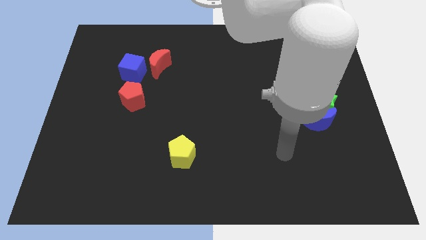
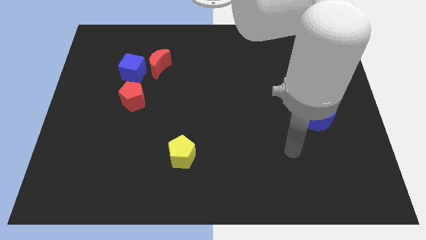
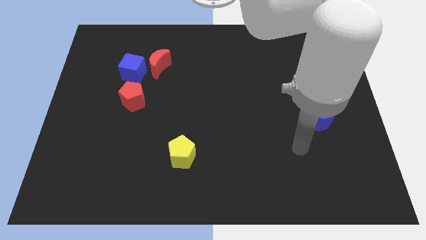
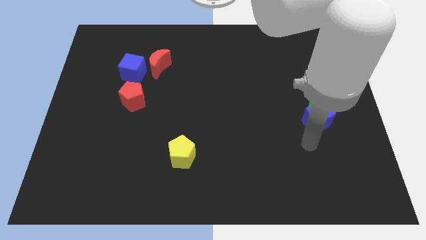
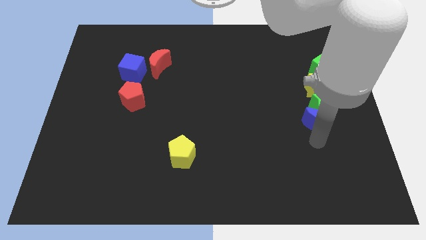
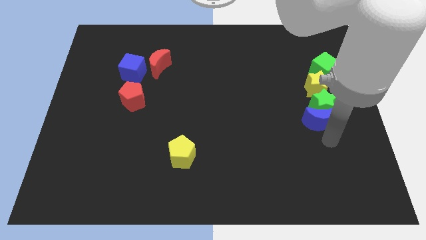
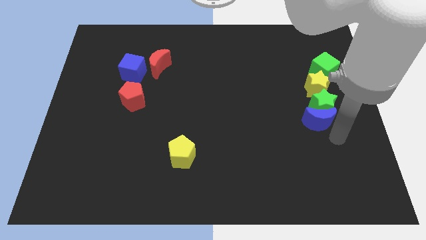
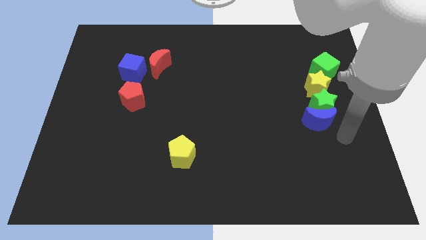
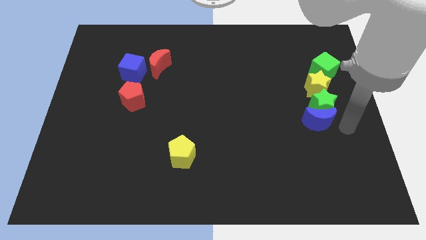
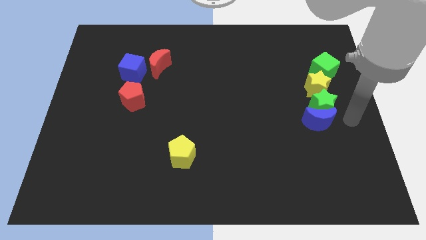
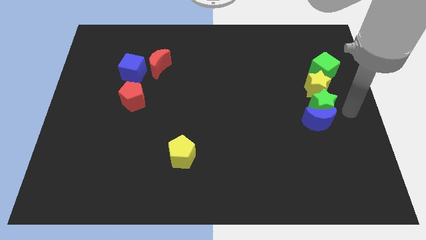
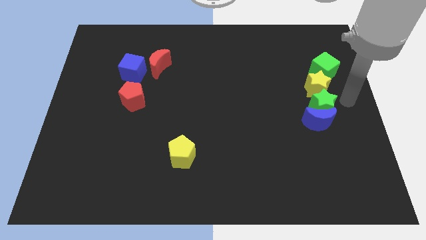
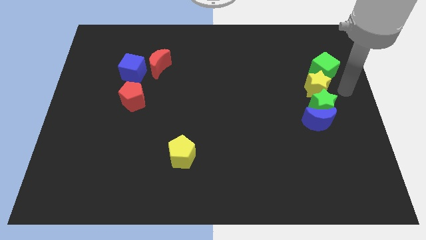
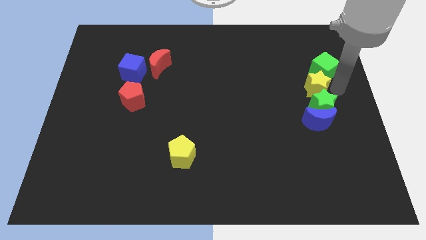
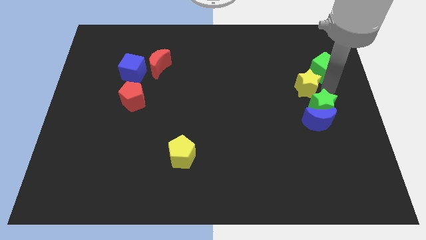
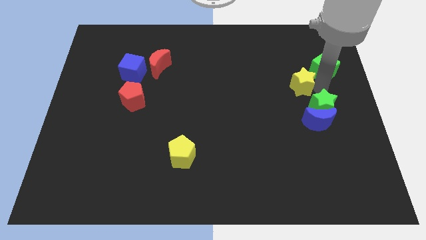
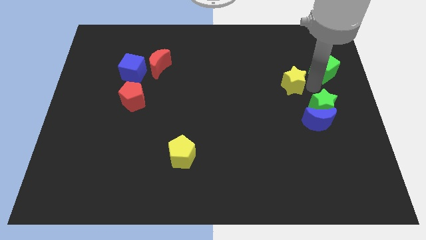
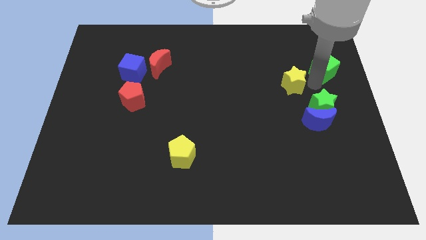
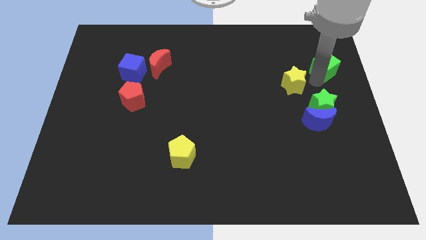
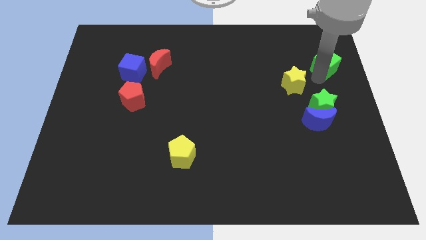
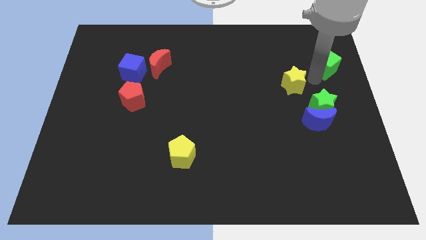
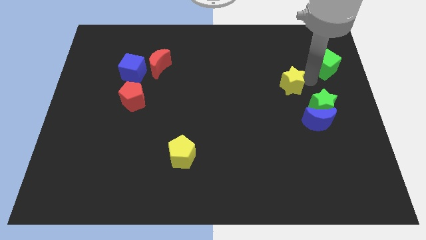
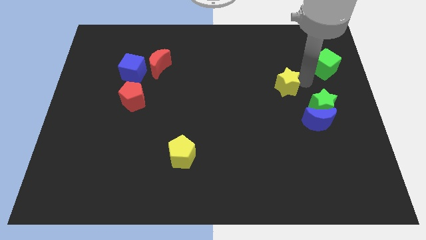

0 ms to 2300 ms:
slide the yellow star slightly left

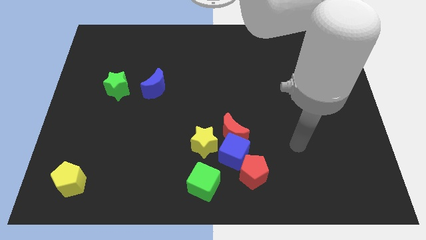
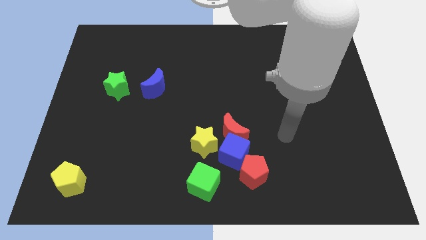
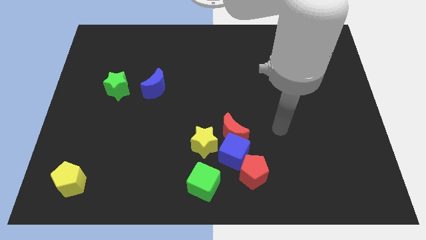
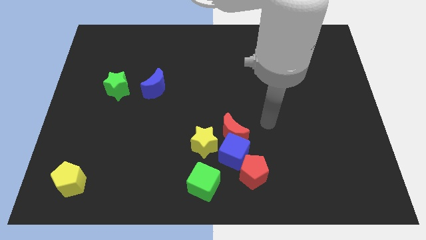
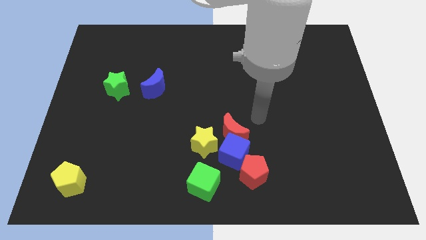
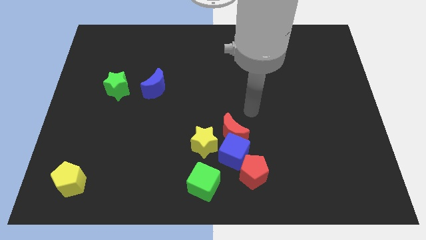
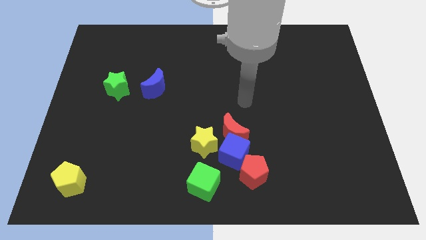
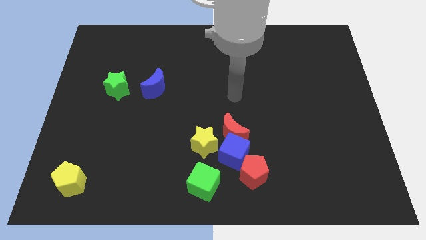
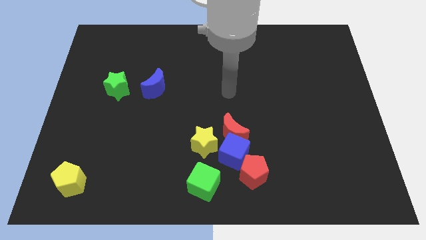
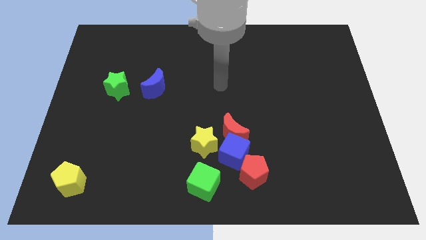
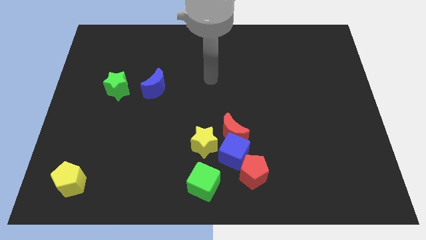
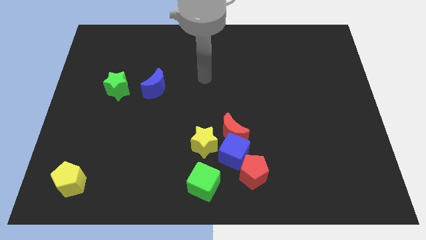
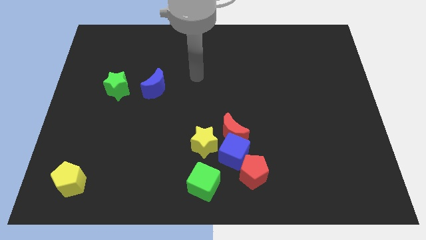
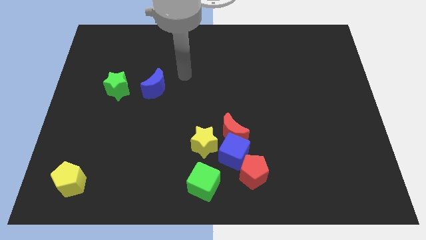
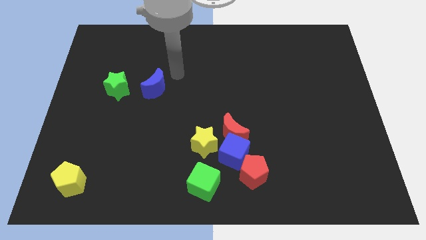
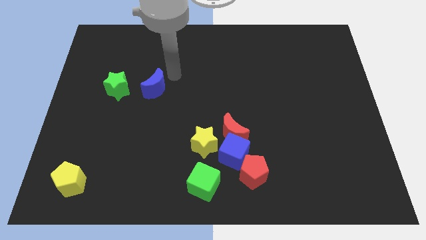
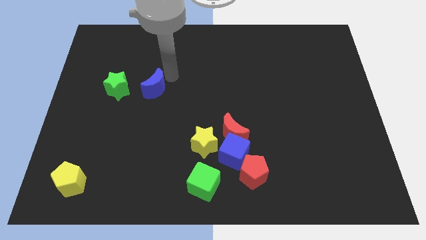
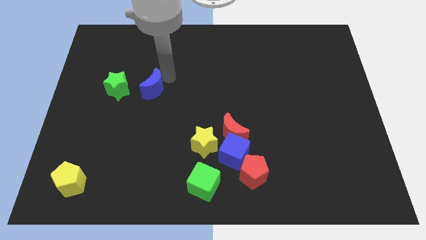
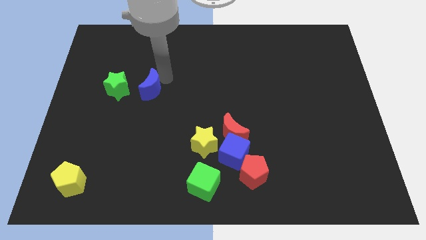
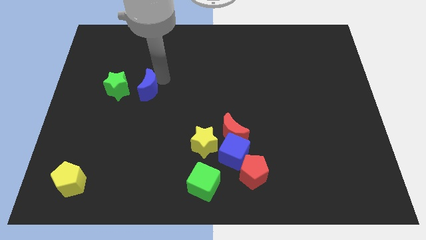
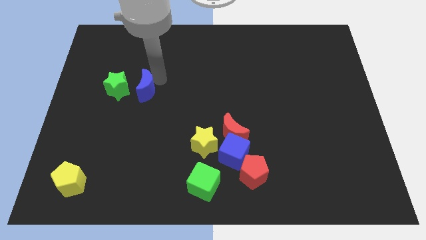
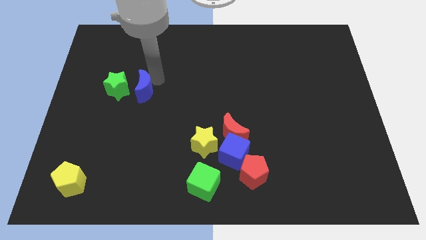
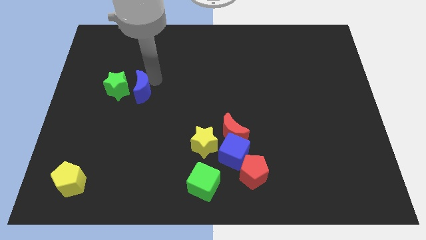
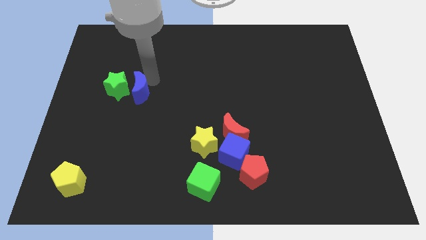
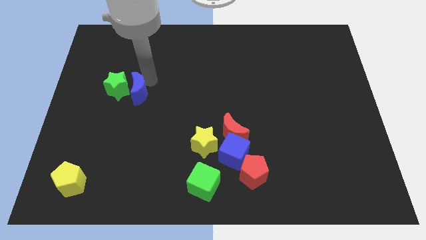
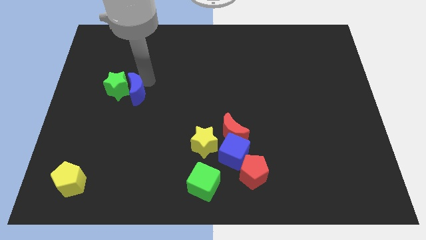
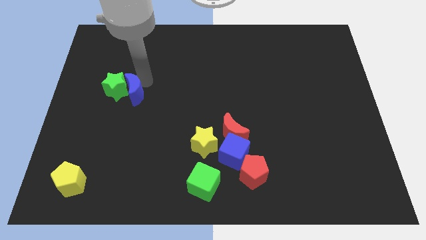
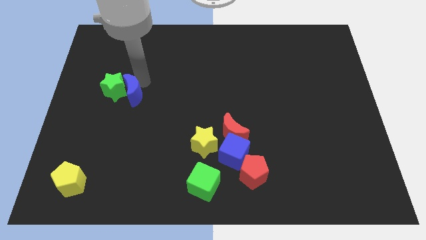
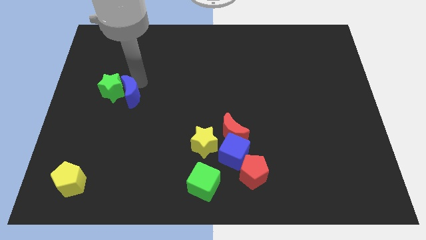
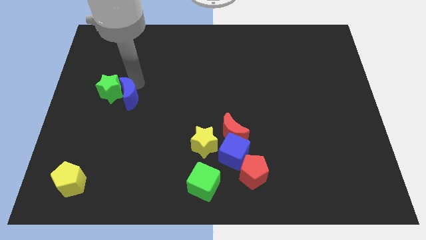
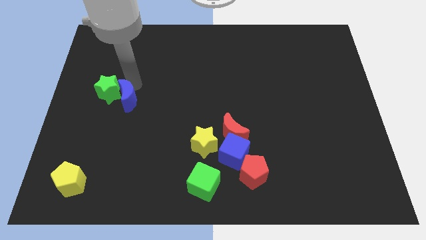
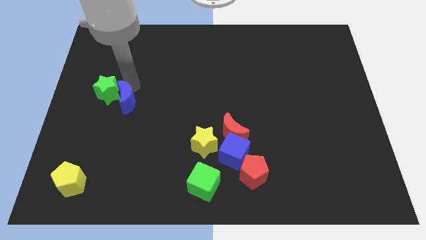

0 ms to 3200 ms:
slightly move the blue moon downwards and then left

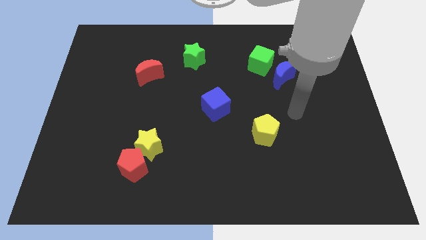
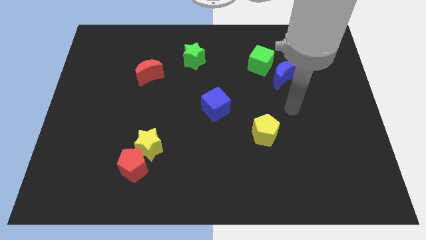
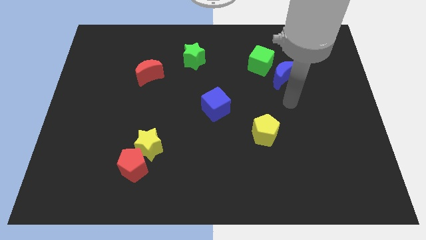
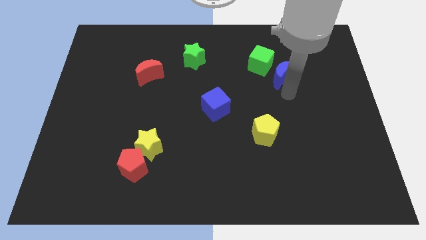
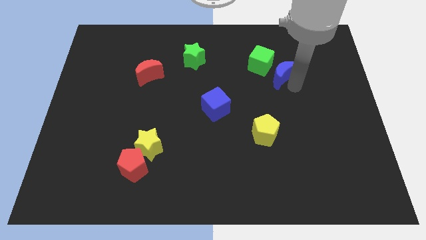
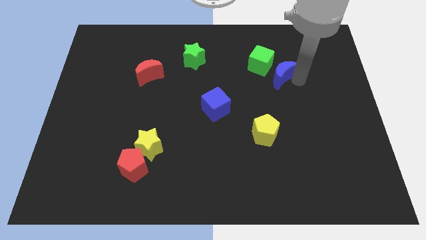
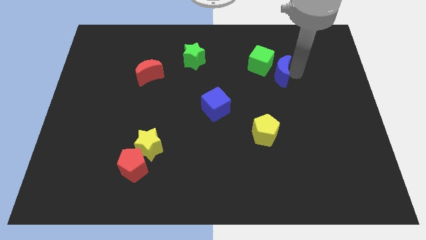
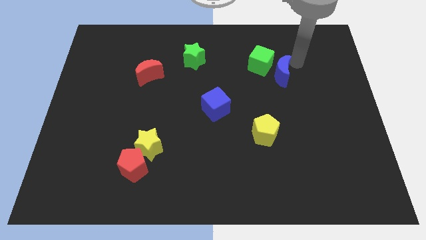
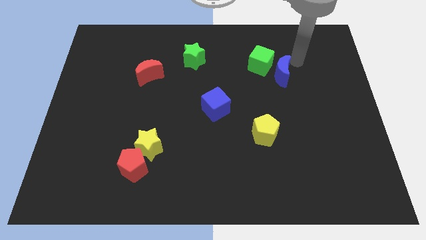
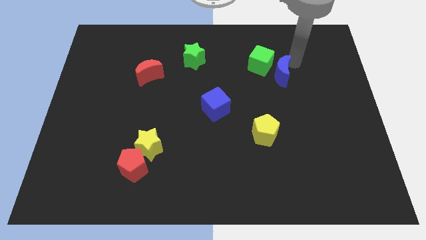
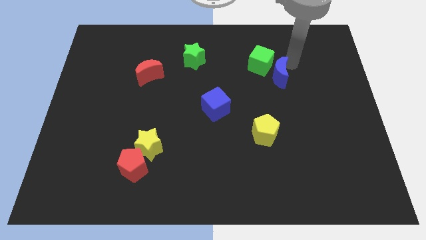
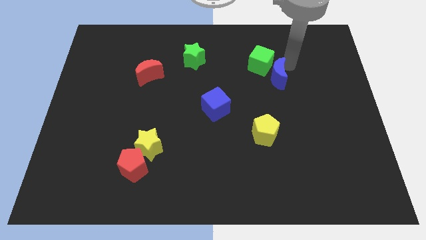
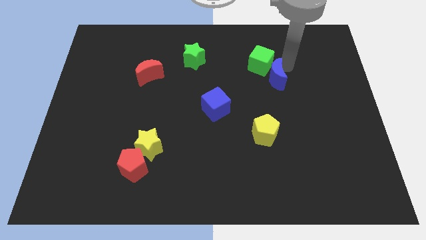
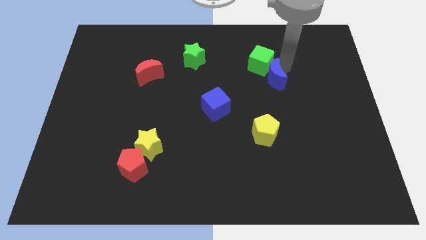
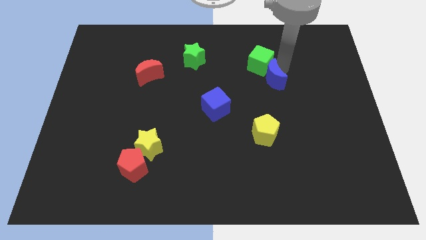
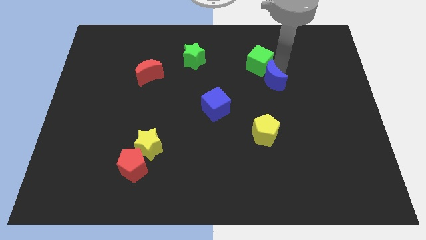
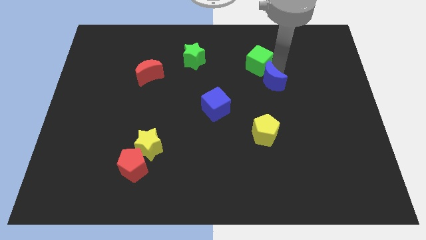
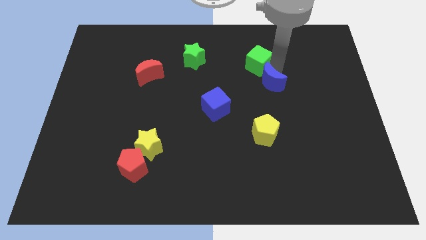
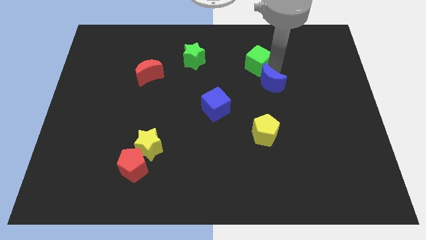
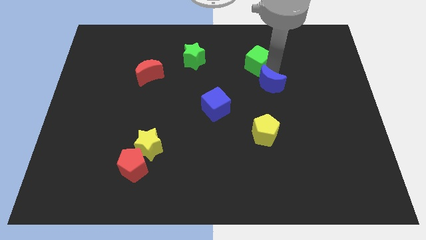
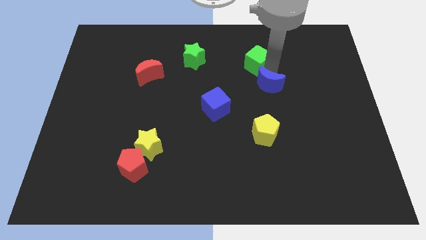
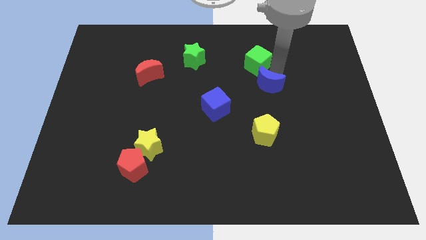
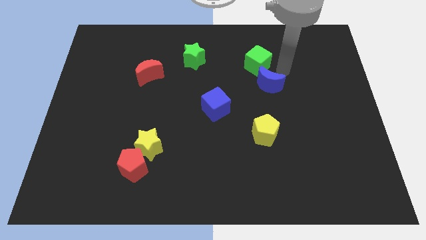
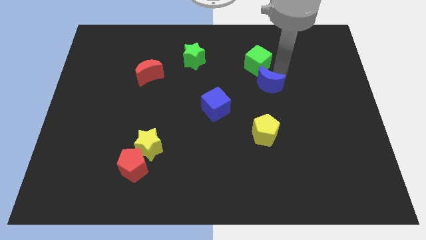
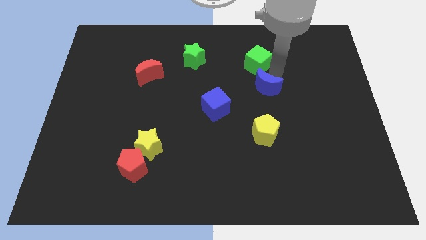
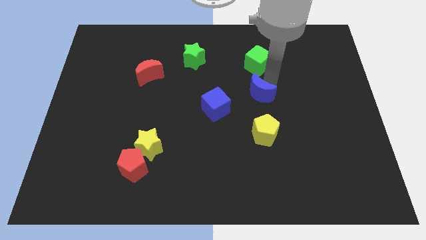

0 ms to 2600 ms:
slide the blue moon down and to the left slightly
